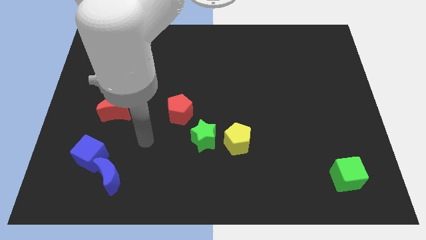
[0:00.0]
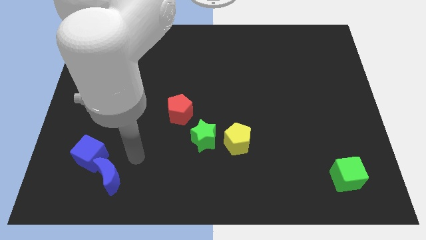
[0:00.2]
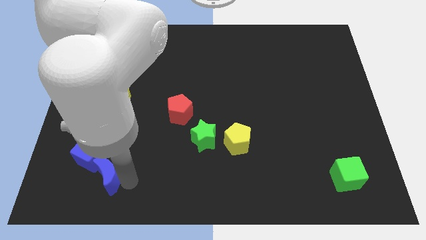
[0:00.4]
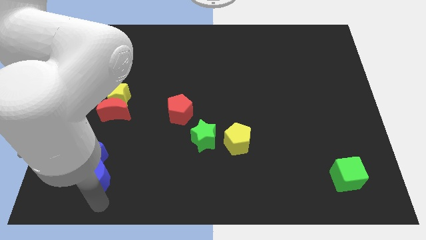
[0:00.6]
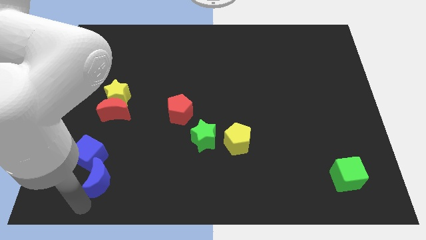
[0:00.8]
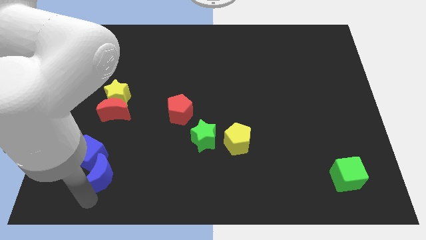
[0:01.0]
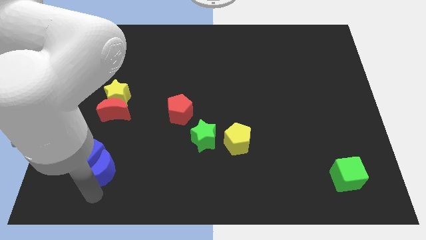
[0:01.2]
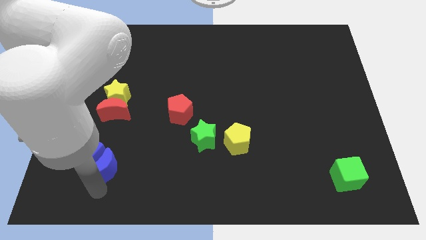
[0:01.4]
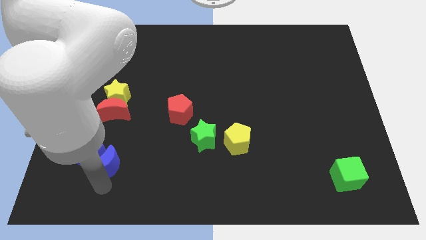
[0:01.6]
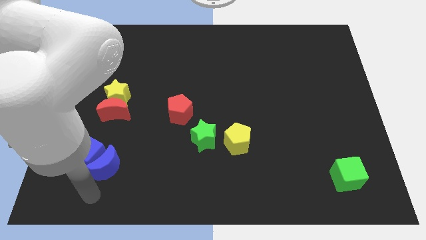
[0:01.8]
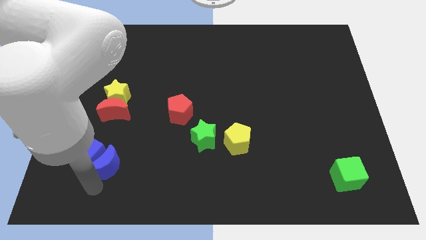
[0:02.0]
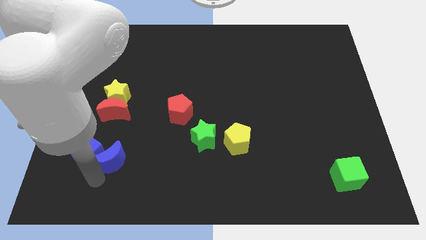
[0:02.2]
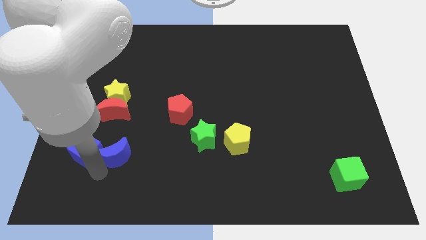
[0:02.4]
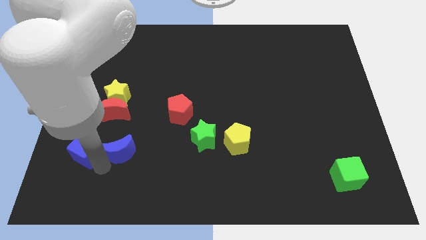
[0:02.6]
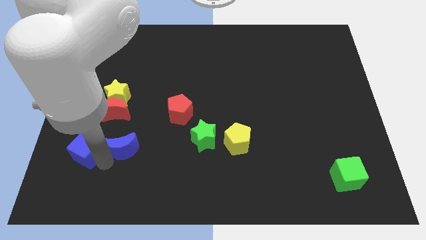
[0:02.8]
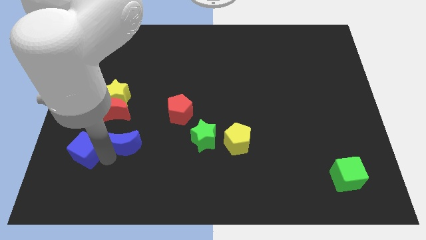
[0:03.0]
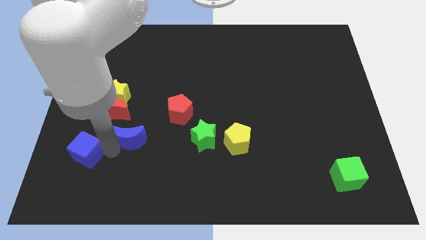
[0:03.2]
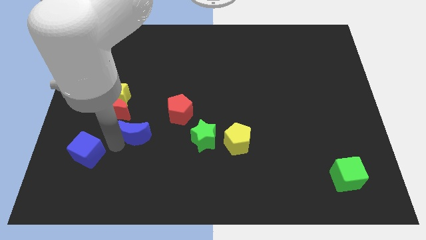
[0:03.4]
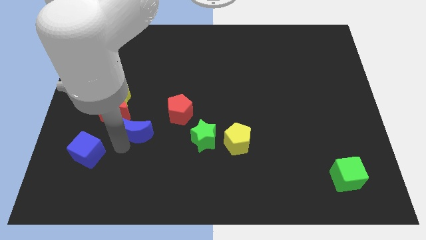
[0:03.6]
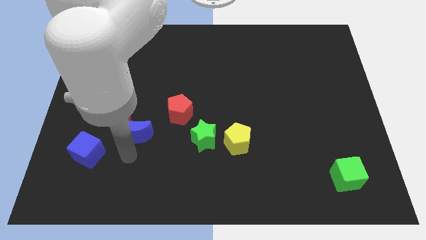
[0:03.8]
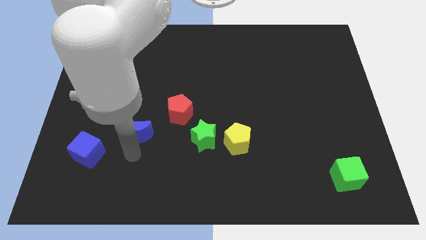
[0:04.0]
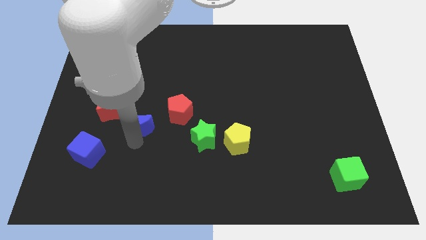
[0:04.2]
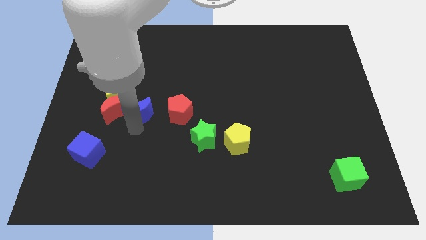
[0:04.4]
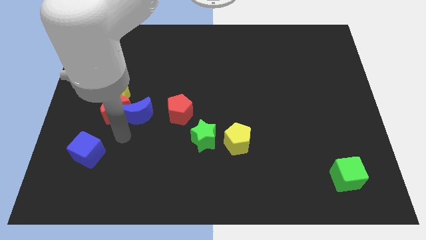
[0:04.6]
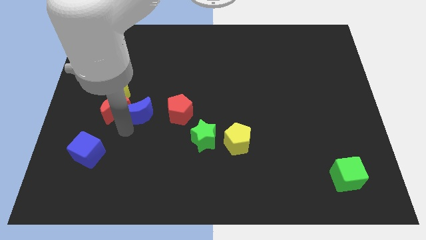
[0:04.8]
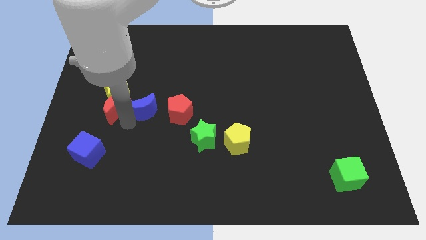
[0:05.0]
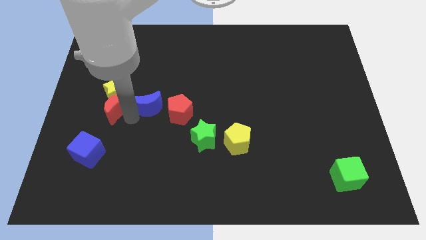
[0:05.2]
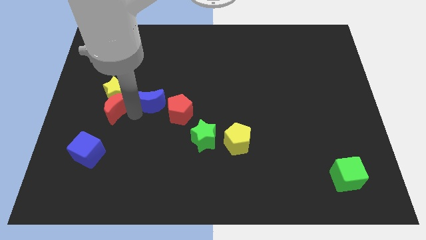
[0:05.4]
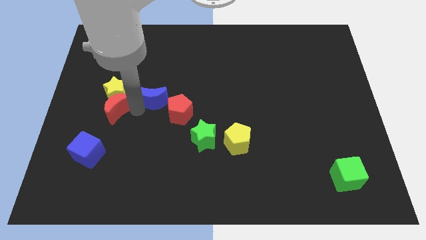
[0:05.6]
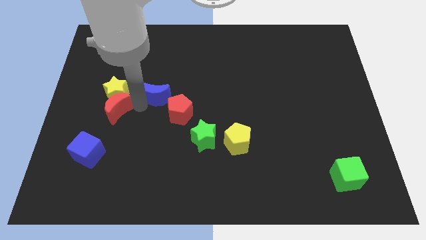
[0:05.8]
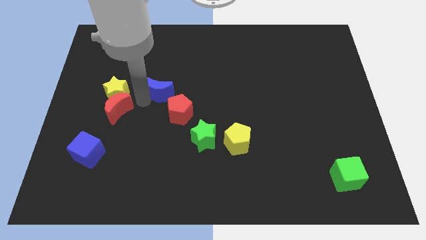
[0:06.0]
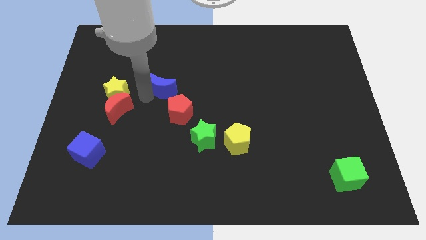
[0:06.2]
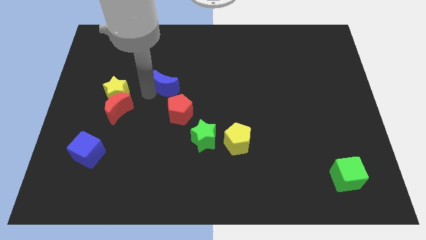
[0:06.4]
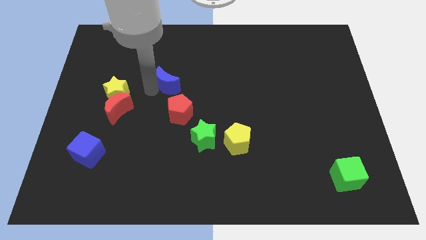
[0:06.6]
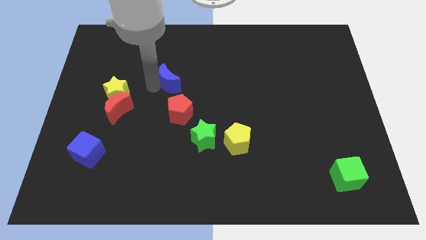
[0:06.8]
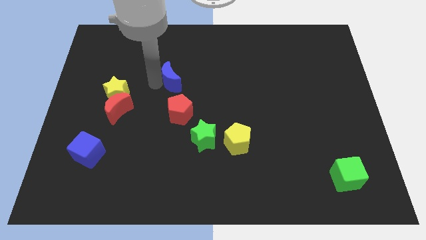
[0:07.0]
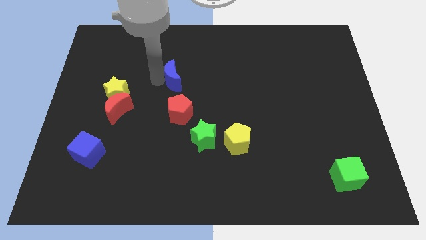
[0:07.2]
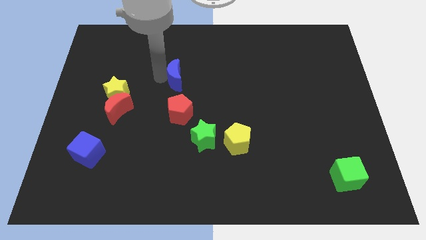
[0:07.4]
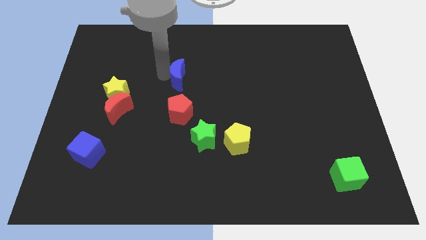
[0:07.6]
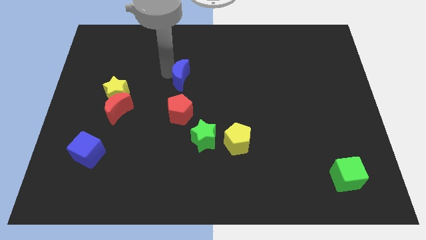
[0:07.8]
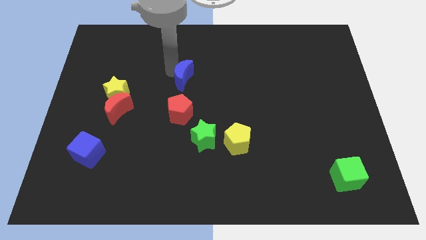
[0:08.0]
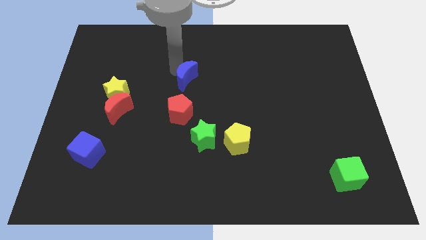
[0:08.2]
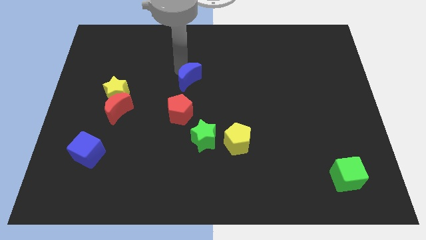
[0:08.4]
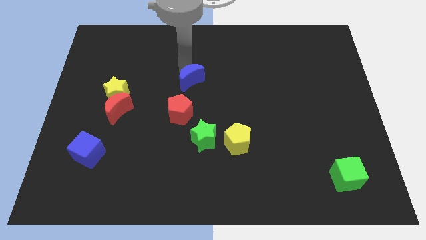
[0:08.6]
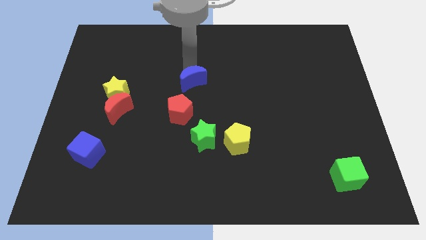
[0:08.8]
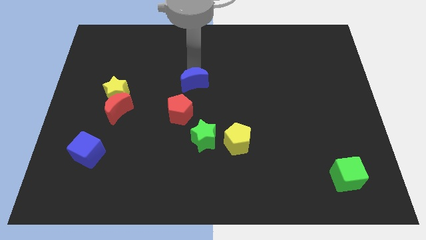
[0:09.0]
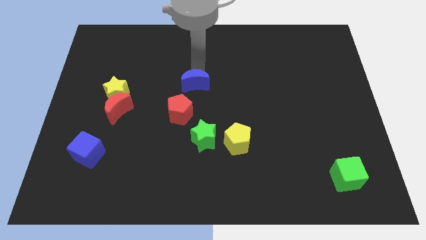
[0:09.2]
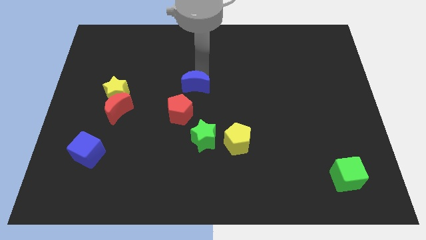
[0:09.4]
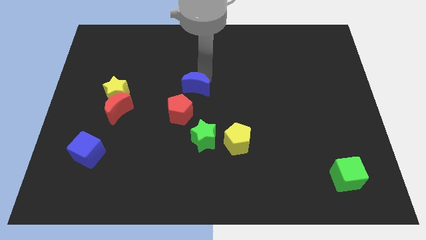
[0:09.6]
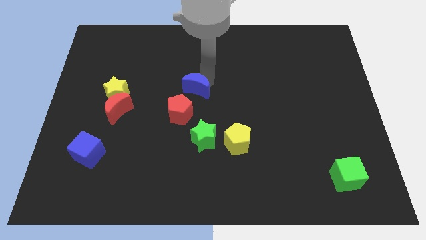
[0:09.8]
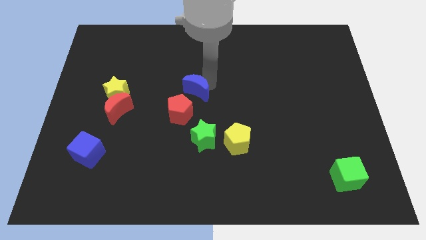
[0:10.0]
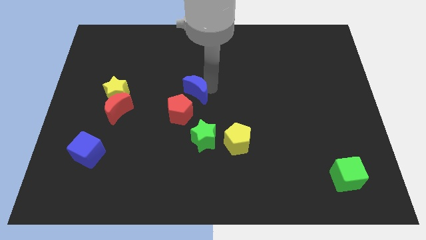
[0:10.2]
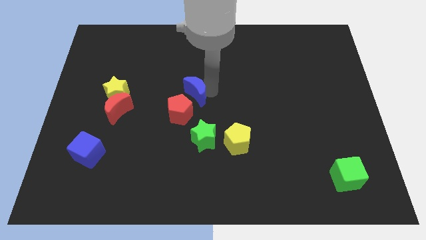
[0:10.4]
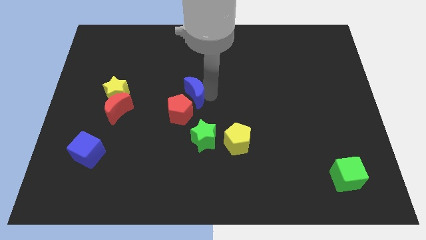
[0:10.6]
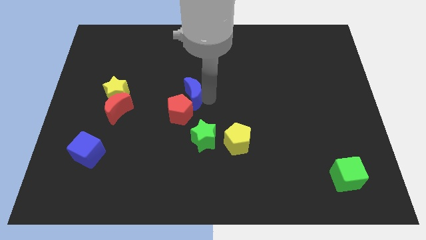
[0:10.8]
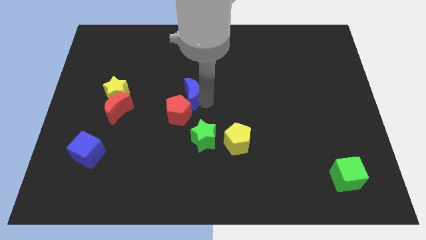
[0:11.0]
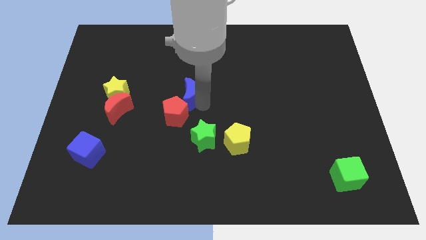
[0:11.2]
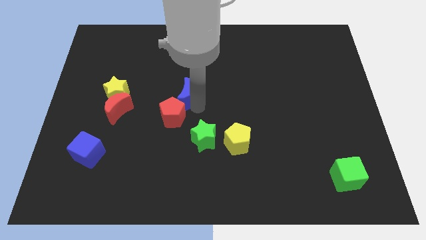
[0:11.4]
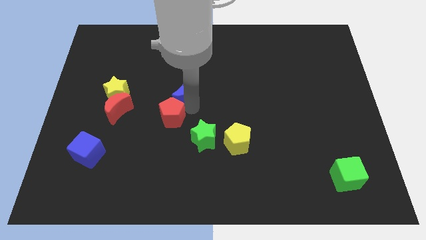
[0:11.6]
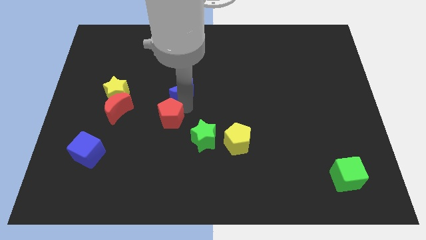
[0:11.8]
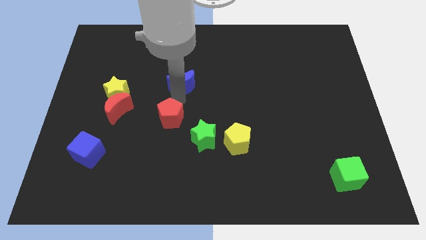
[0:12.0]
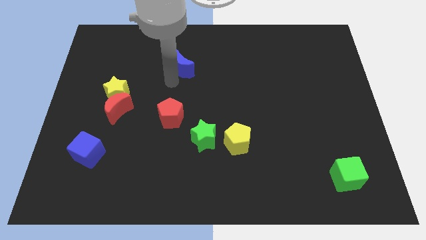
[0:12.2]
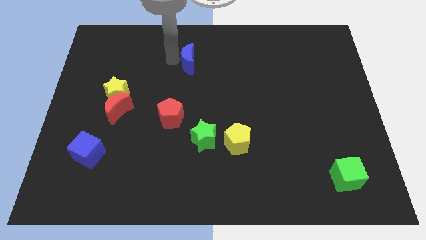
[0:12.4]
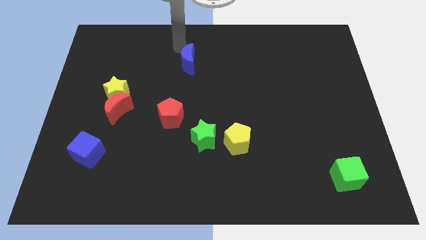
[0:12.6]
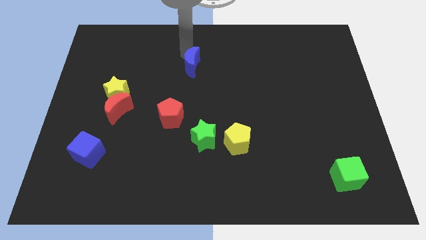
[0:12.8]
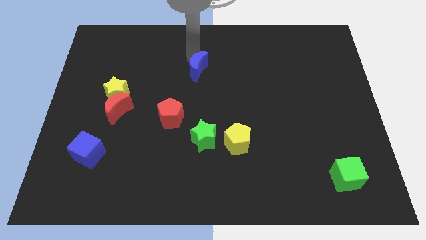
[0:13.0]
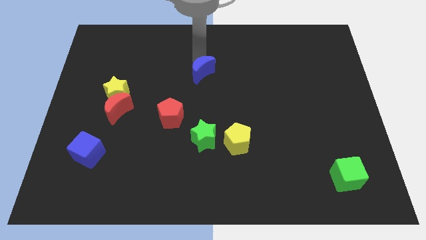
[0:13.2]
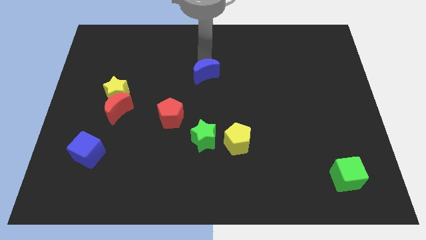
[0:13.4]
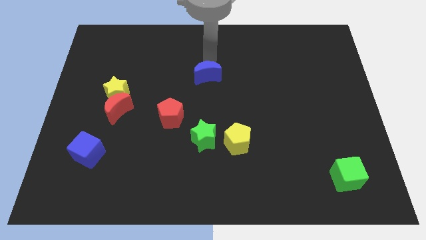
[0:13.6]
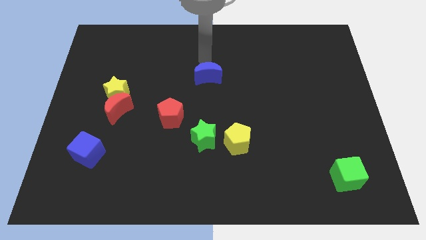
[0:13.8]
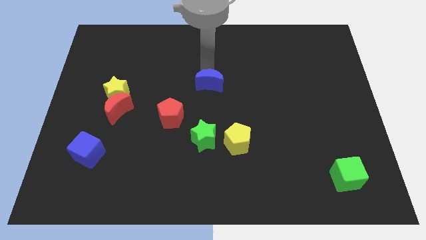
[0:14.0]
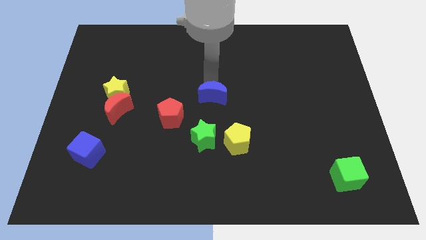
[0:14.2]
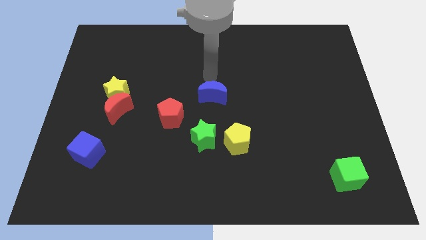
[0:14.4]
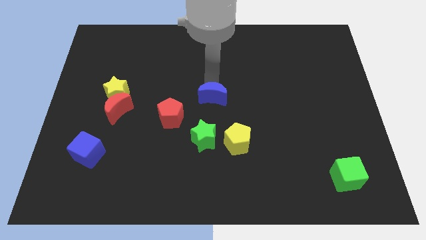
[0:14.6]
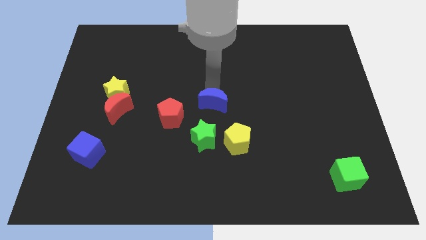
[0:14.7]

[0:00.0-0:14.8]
push the blue moon to the right of the red pentagon
